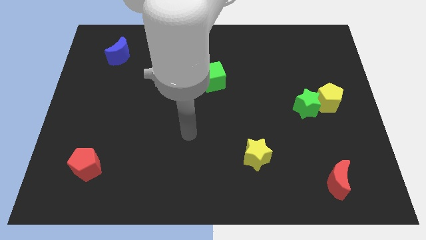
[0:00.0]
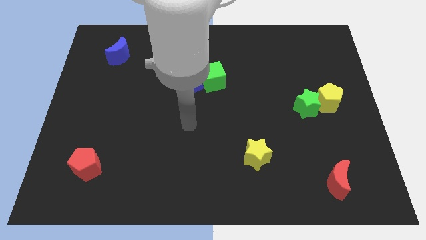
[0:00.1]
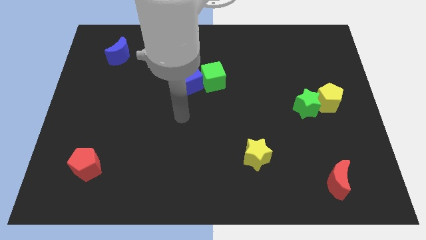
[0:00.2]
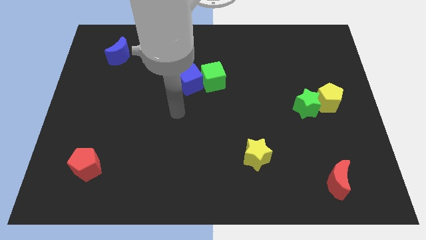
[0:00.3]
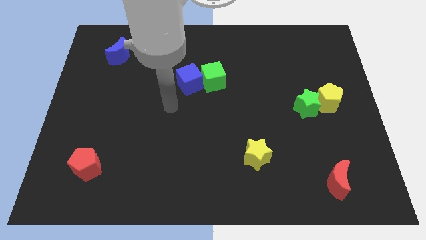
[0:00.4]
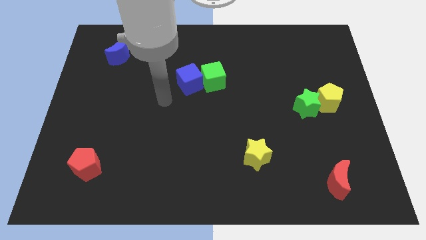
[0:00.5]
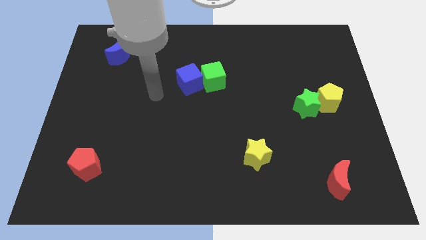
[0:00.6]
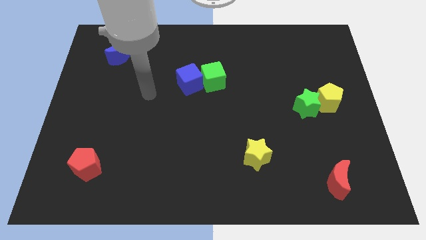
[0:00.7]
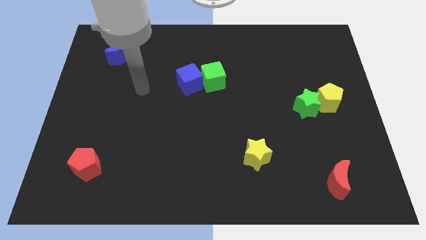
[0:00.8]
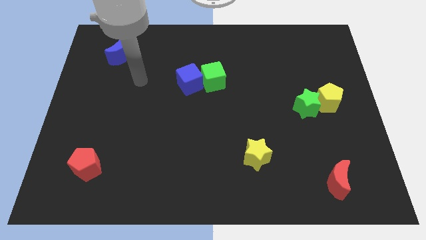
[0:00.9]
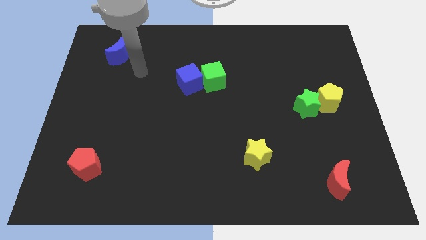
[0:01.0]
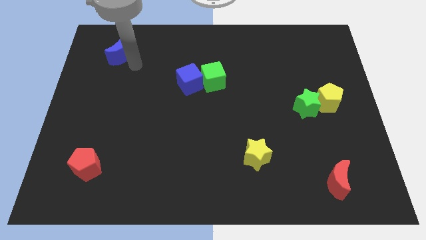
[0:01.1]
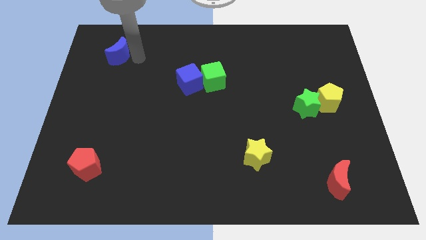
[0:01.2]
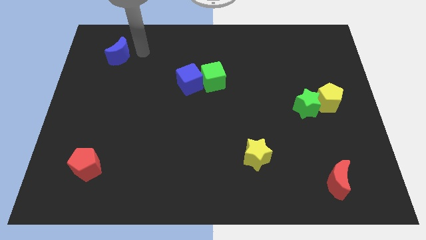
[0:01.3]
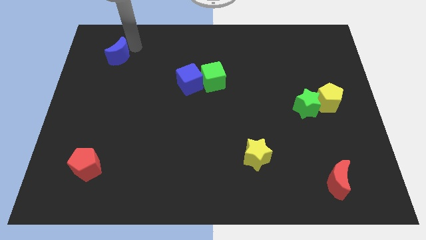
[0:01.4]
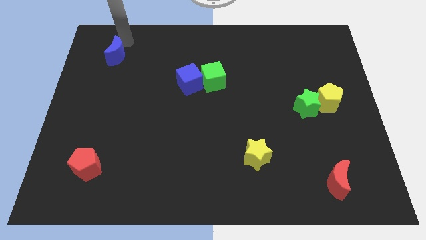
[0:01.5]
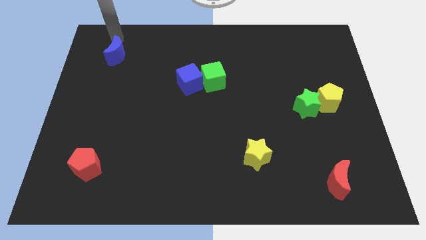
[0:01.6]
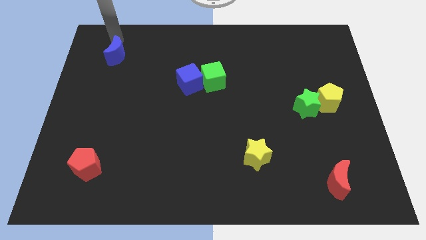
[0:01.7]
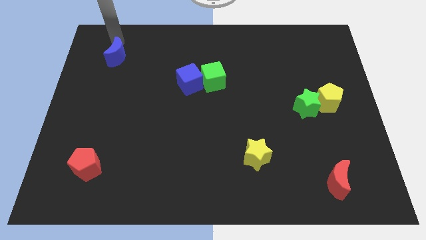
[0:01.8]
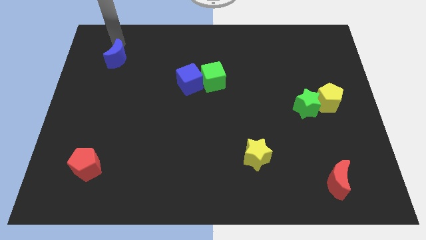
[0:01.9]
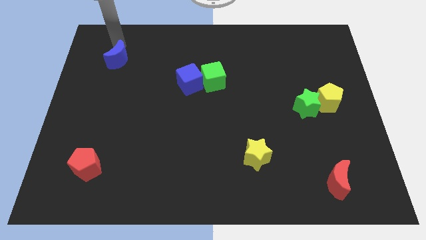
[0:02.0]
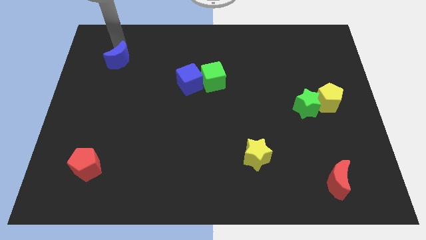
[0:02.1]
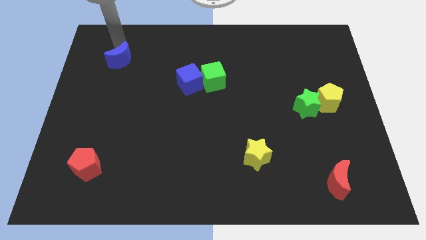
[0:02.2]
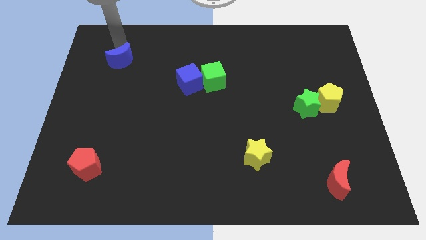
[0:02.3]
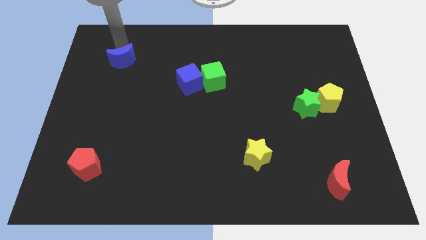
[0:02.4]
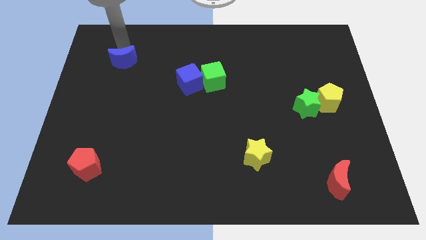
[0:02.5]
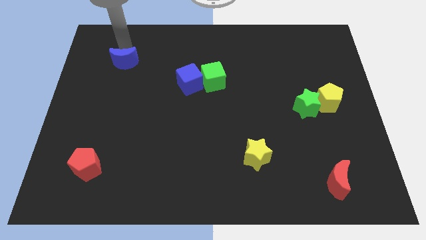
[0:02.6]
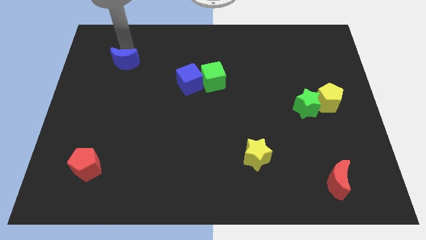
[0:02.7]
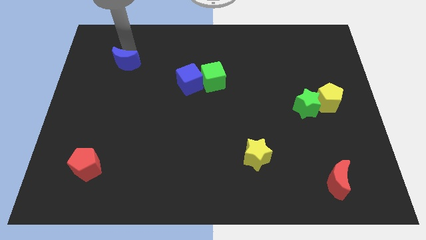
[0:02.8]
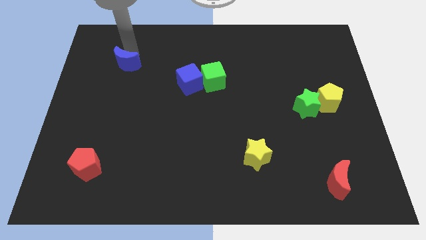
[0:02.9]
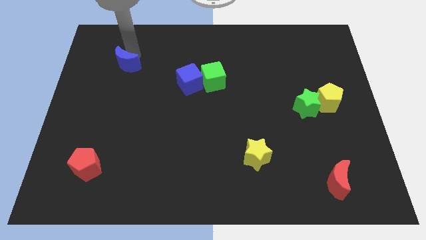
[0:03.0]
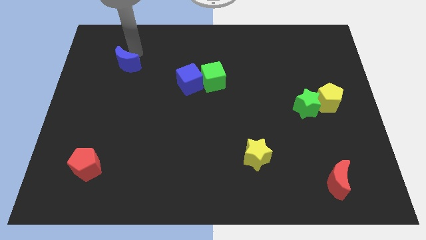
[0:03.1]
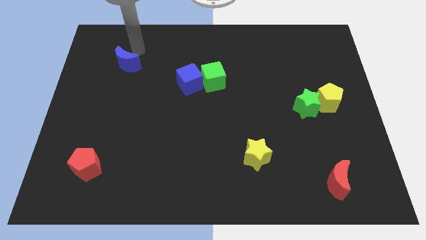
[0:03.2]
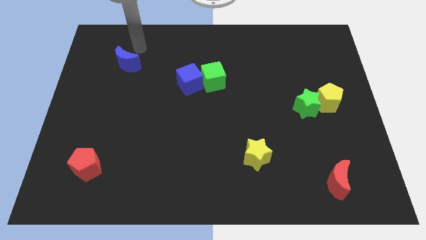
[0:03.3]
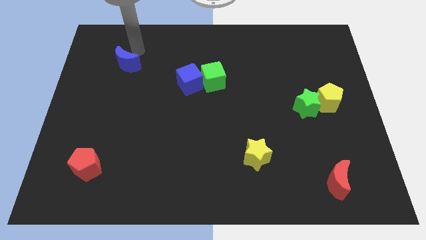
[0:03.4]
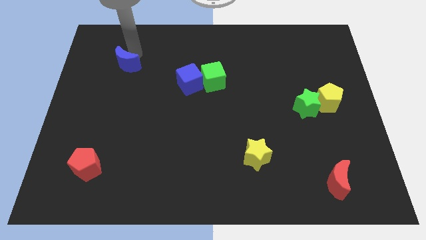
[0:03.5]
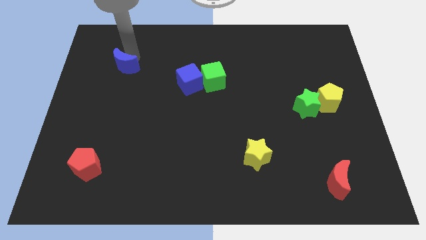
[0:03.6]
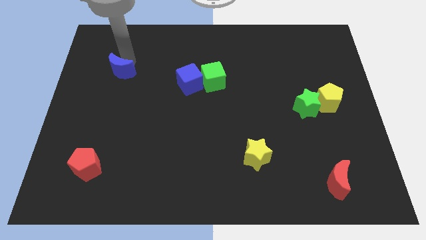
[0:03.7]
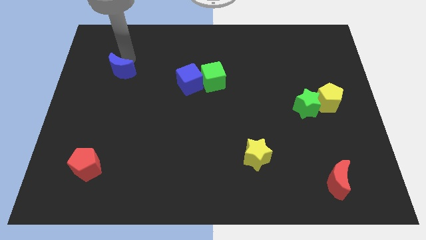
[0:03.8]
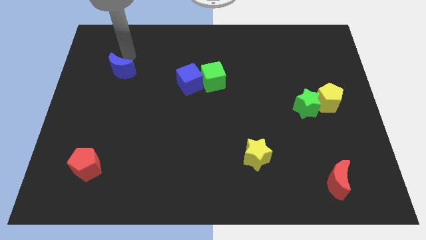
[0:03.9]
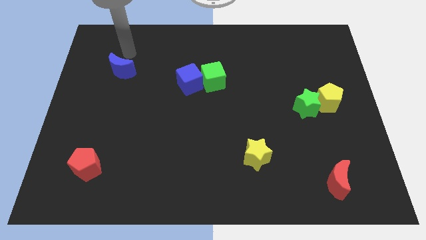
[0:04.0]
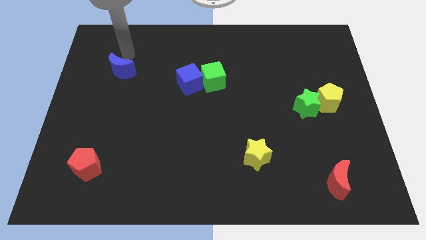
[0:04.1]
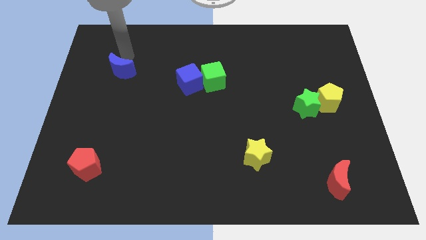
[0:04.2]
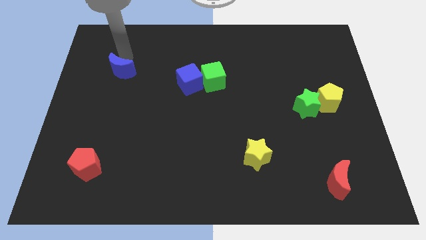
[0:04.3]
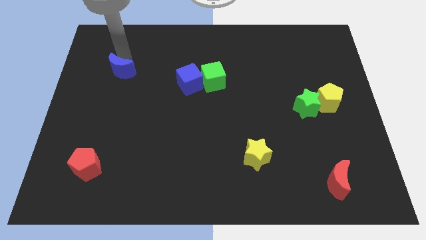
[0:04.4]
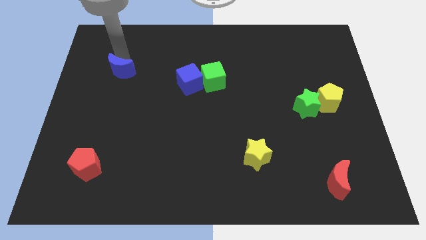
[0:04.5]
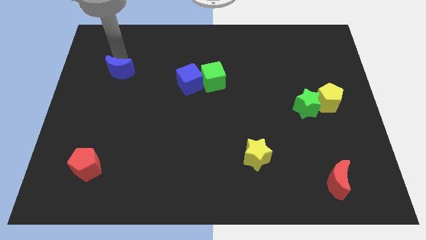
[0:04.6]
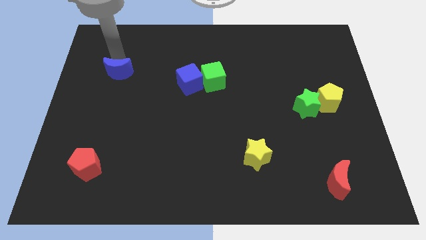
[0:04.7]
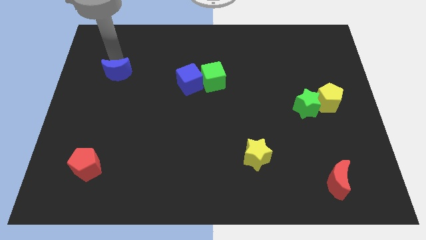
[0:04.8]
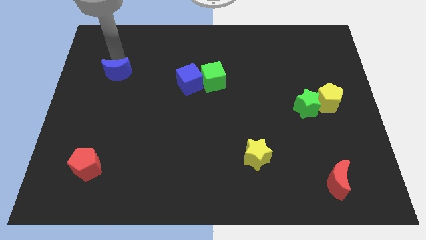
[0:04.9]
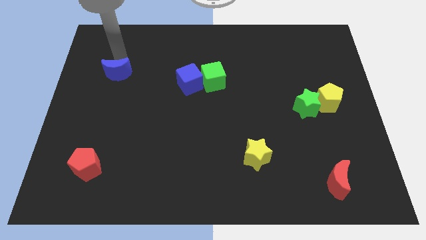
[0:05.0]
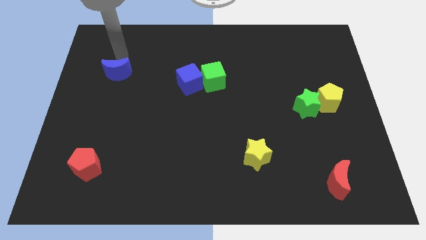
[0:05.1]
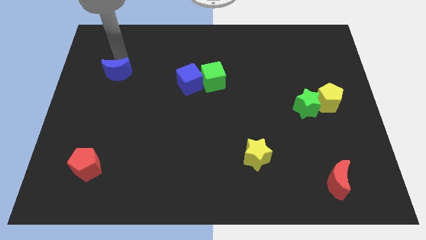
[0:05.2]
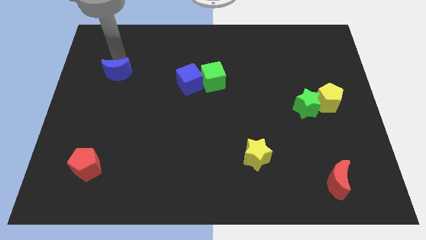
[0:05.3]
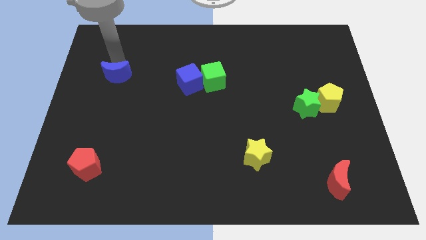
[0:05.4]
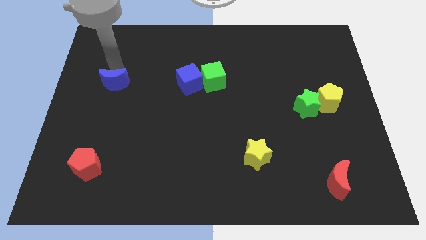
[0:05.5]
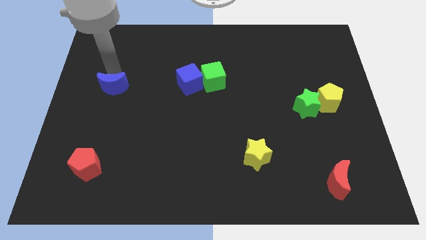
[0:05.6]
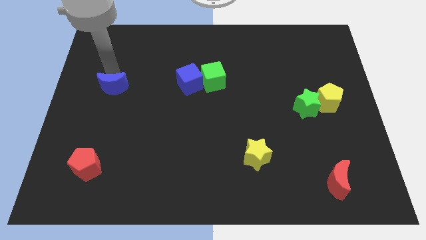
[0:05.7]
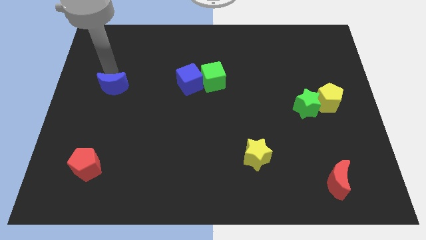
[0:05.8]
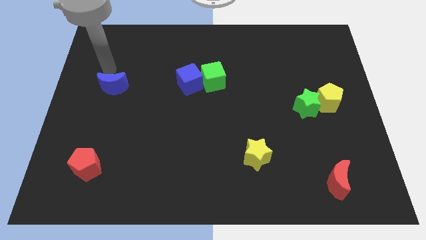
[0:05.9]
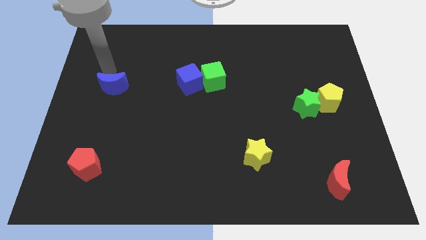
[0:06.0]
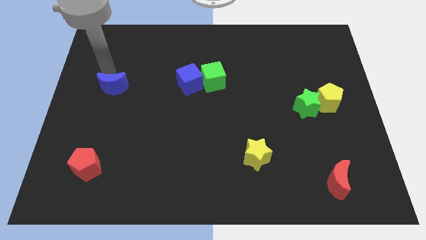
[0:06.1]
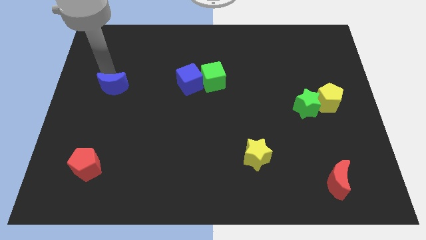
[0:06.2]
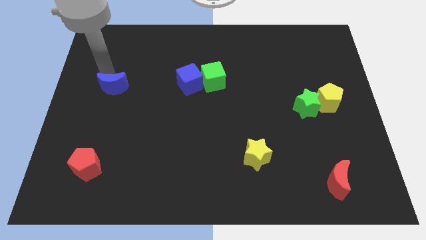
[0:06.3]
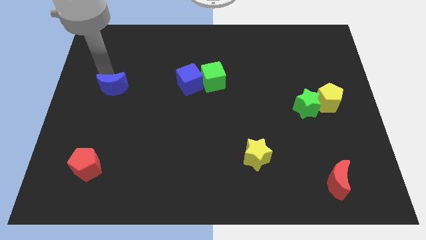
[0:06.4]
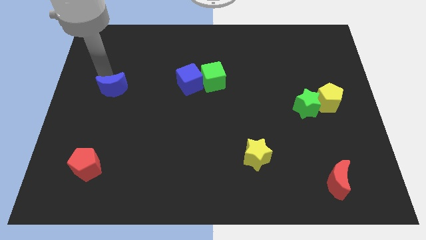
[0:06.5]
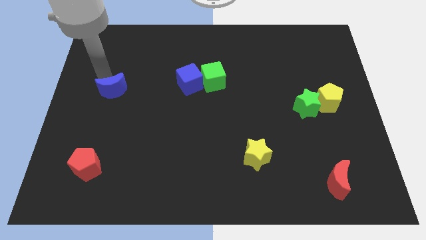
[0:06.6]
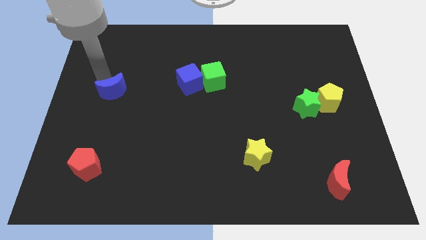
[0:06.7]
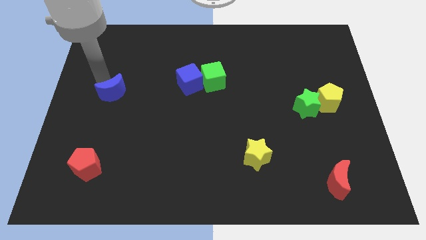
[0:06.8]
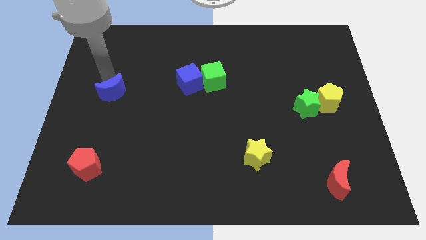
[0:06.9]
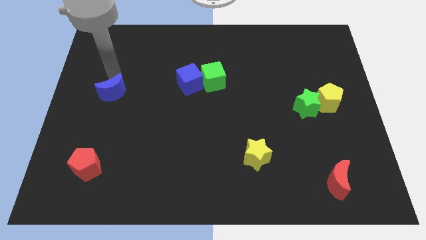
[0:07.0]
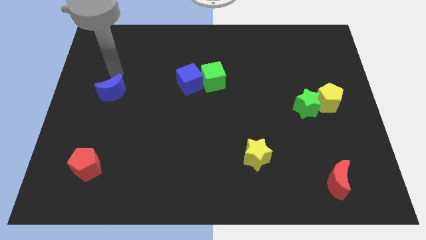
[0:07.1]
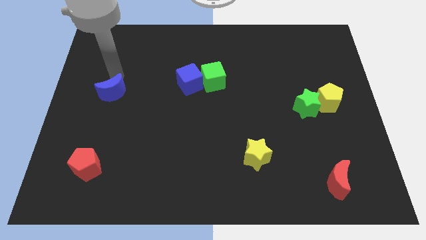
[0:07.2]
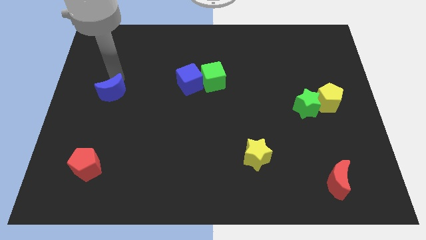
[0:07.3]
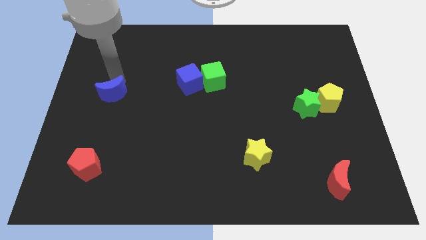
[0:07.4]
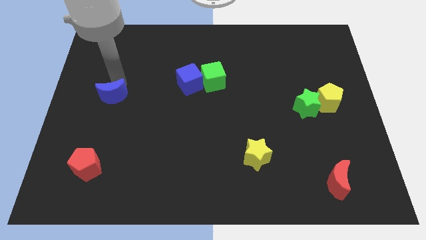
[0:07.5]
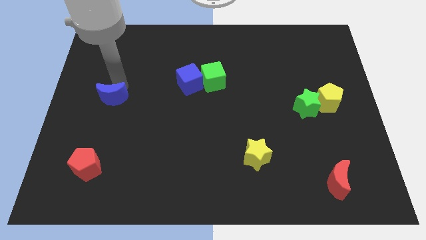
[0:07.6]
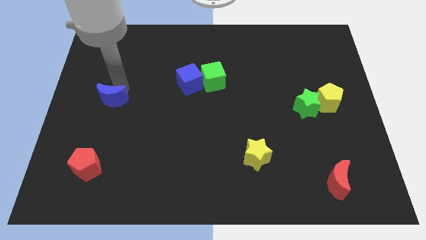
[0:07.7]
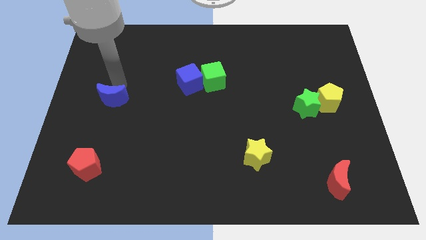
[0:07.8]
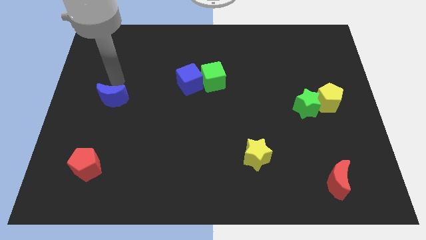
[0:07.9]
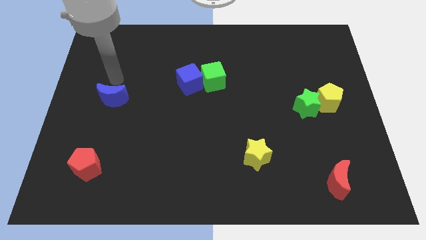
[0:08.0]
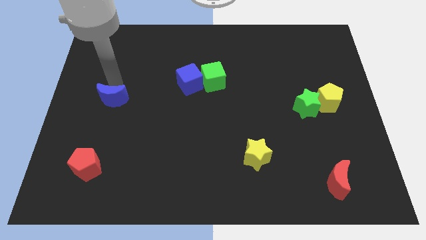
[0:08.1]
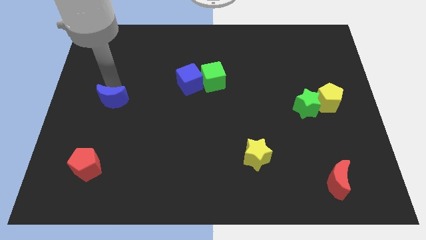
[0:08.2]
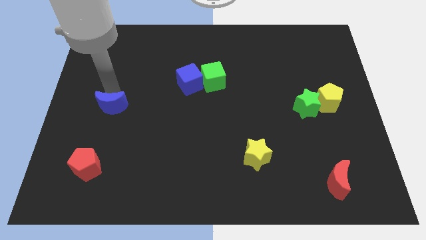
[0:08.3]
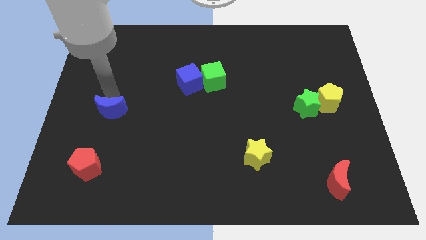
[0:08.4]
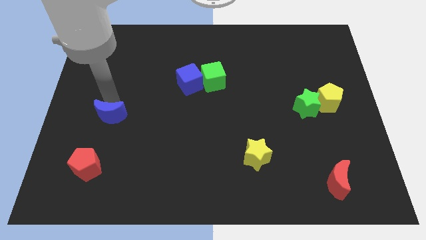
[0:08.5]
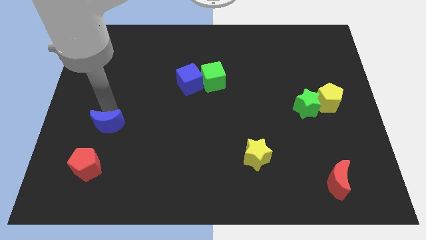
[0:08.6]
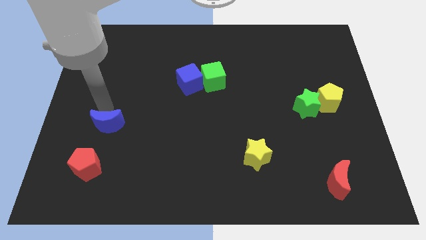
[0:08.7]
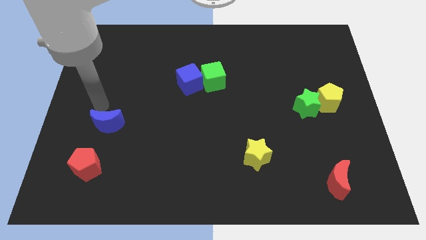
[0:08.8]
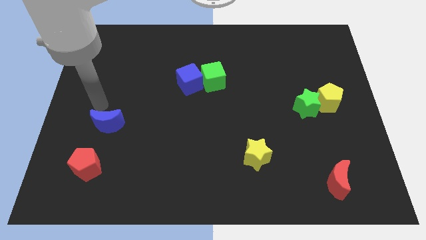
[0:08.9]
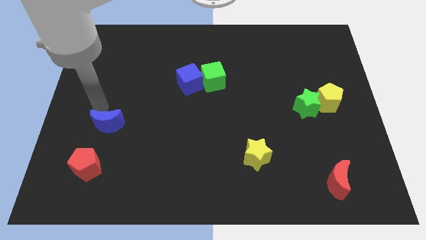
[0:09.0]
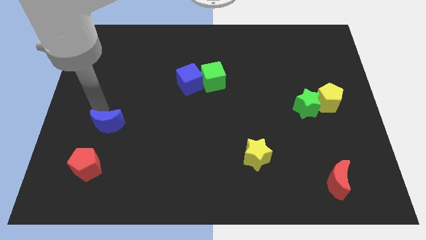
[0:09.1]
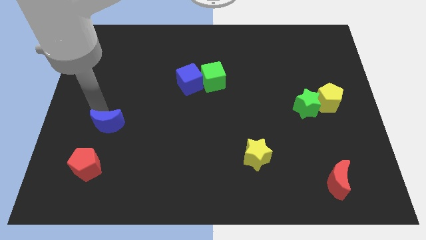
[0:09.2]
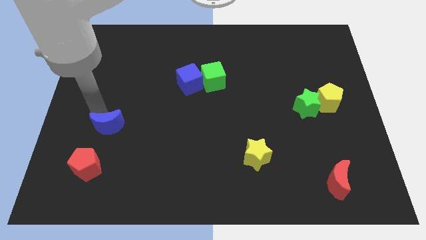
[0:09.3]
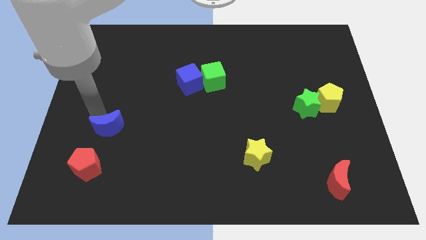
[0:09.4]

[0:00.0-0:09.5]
put the blue moon diagonally up and to the right of the red pentagon
